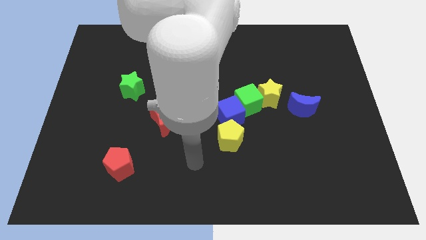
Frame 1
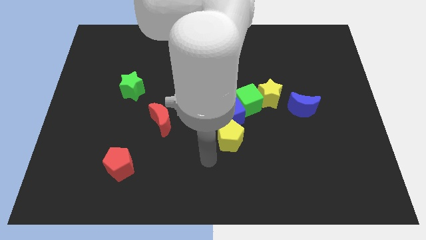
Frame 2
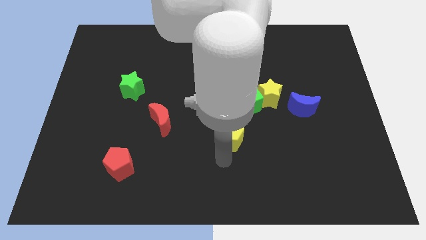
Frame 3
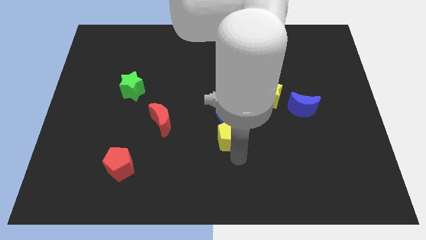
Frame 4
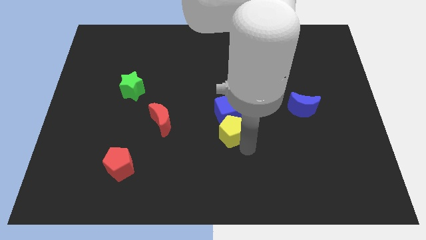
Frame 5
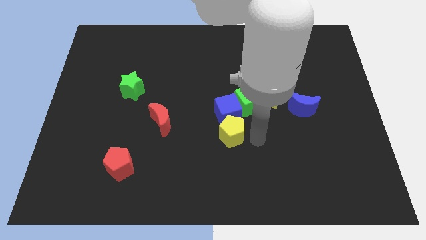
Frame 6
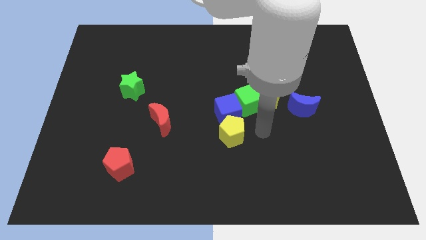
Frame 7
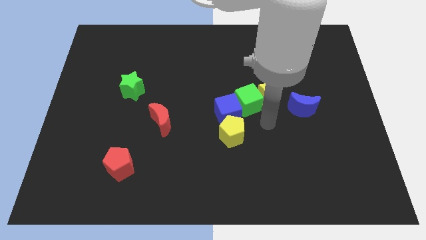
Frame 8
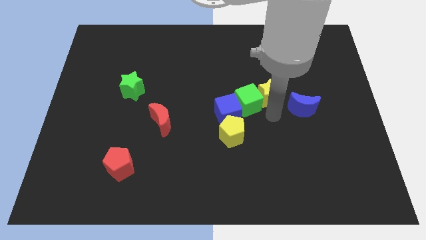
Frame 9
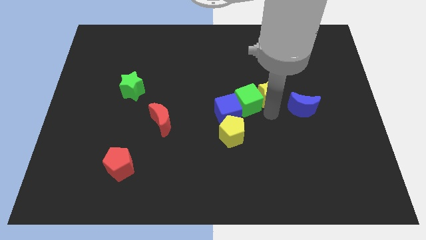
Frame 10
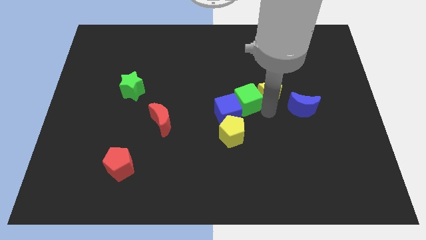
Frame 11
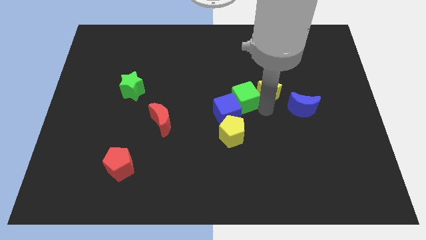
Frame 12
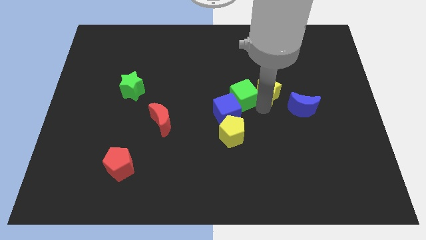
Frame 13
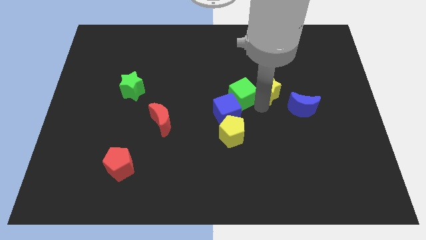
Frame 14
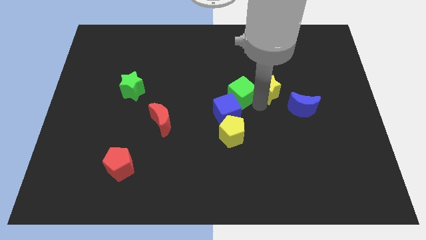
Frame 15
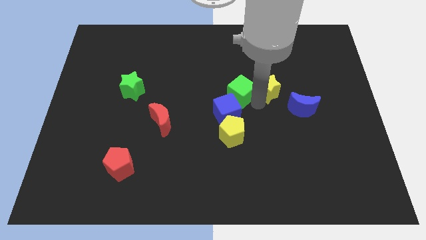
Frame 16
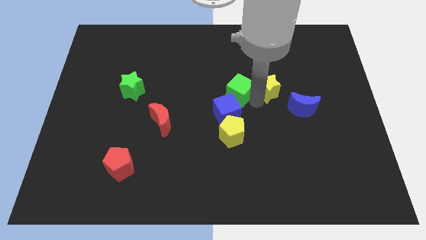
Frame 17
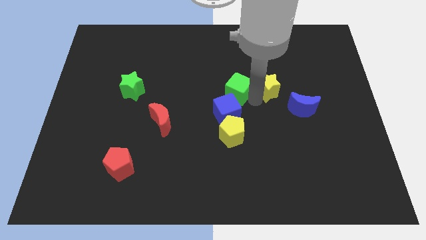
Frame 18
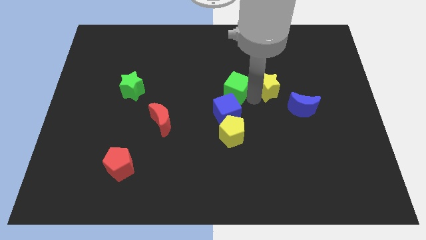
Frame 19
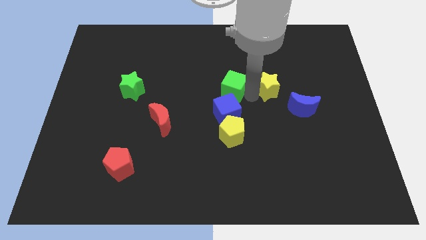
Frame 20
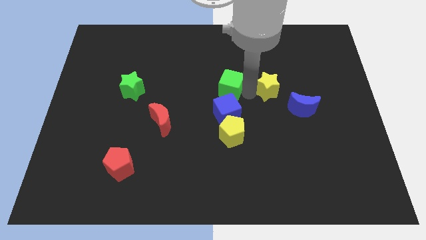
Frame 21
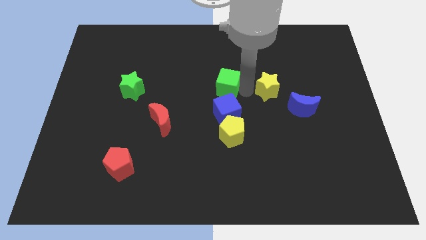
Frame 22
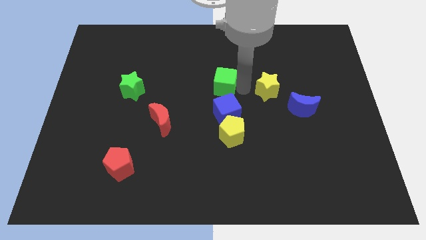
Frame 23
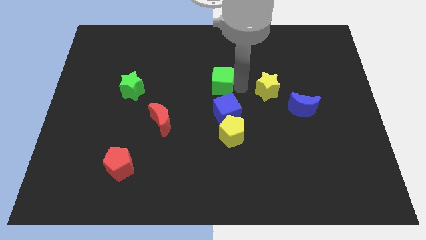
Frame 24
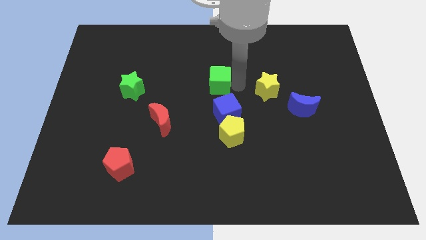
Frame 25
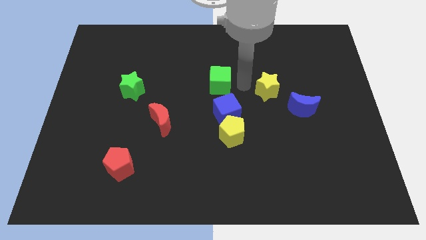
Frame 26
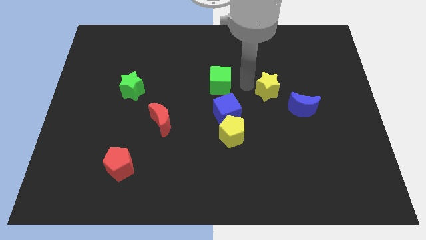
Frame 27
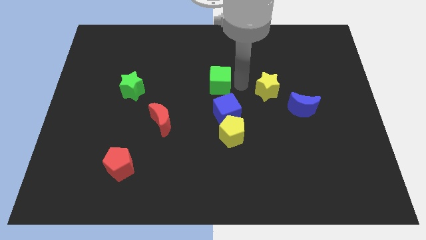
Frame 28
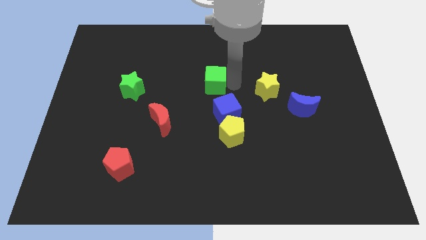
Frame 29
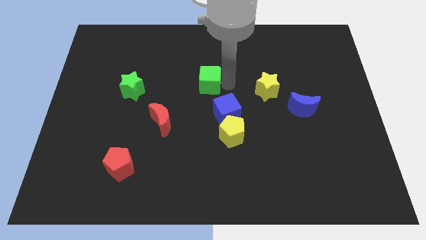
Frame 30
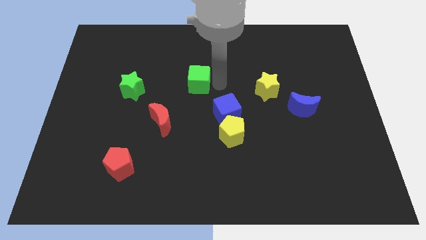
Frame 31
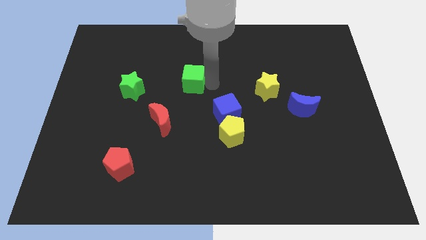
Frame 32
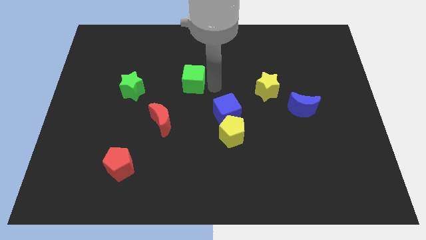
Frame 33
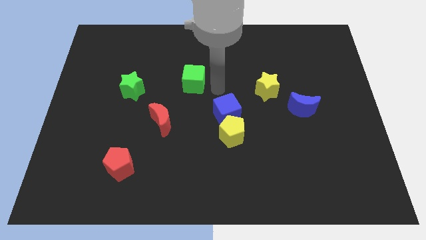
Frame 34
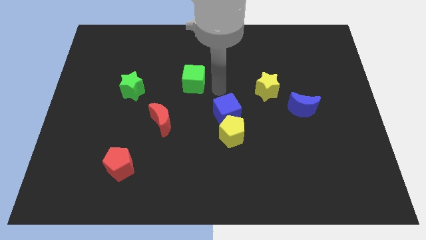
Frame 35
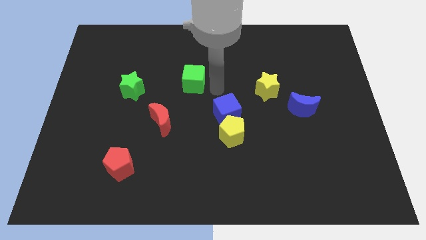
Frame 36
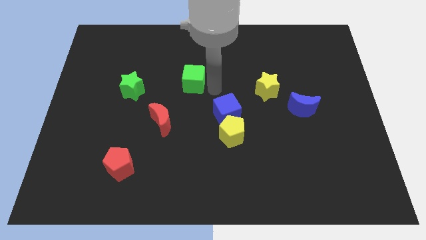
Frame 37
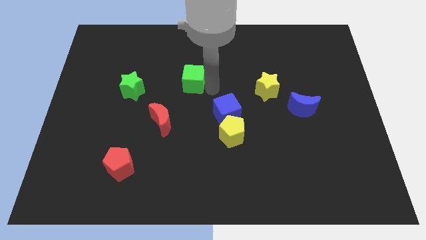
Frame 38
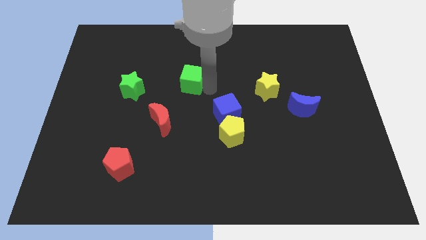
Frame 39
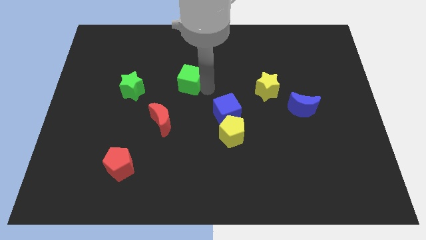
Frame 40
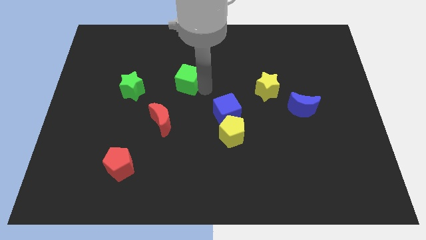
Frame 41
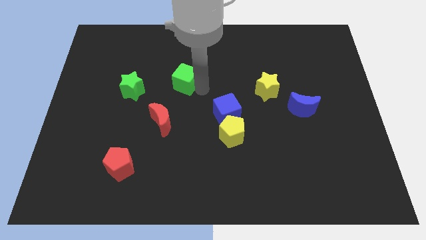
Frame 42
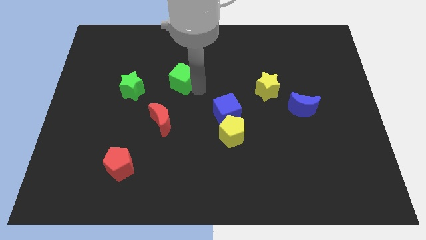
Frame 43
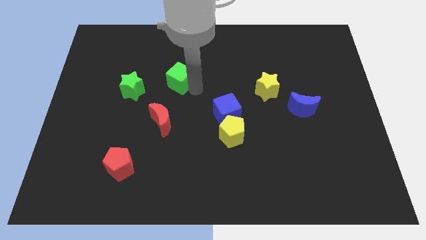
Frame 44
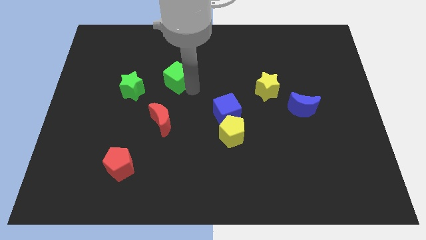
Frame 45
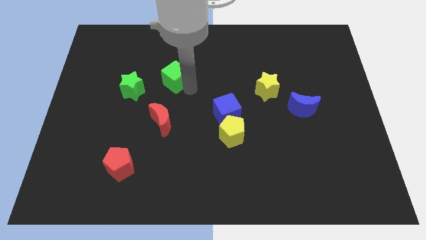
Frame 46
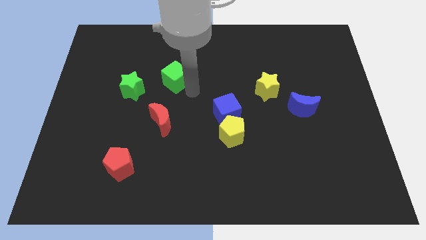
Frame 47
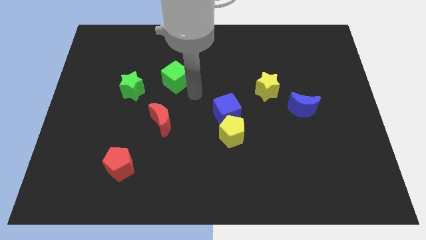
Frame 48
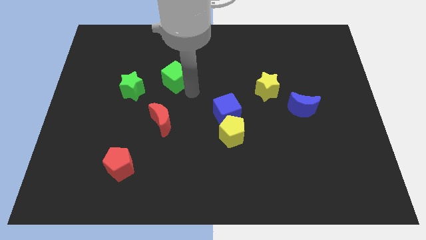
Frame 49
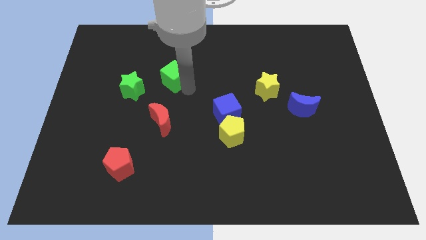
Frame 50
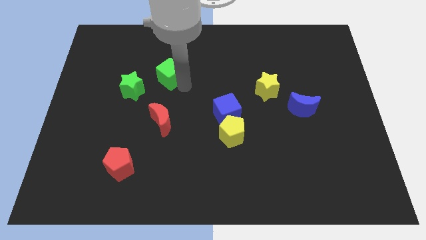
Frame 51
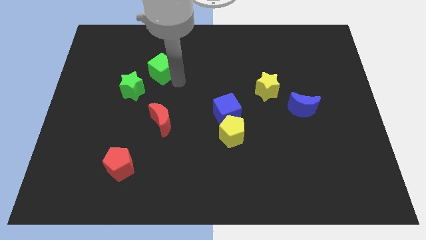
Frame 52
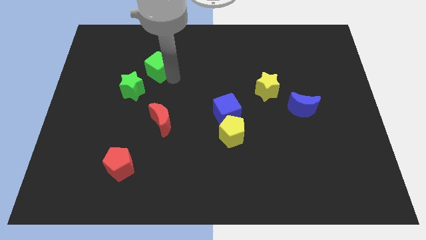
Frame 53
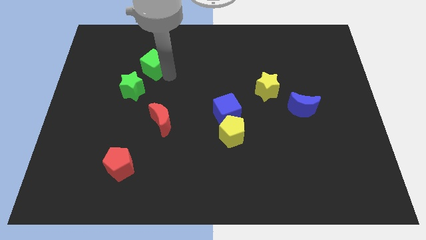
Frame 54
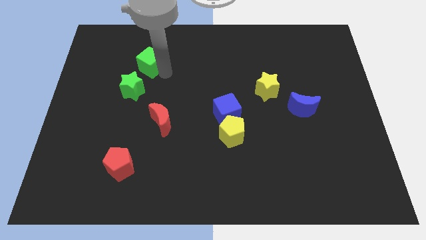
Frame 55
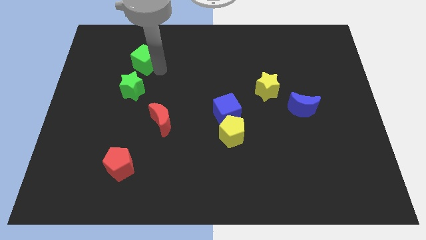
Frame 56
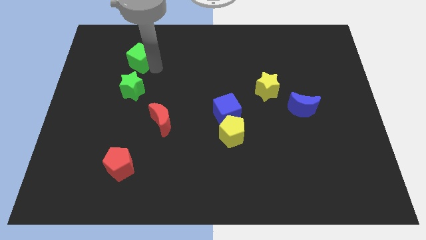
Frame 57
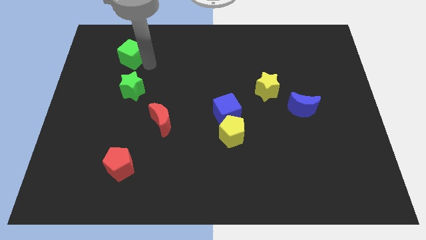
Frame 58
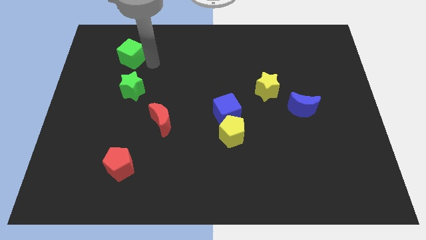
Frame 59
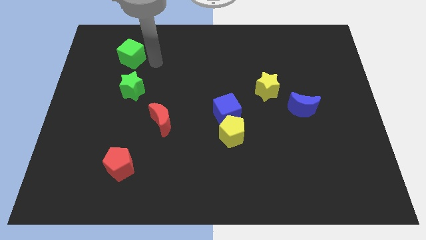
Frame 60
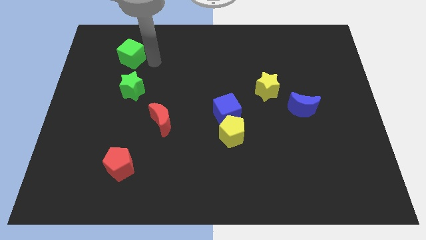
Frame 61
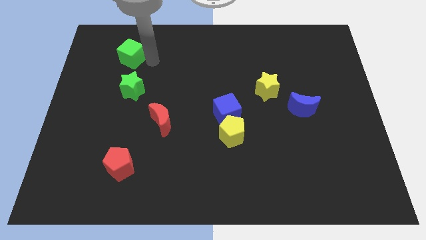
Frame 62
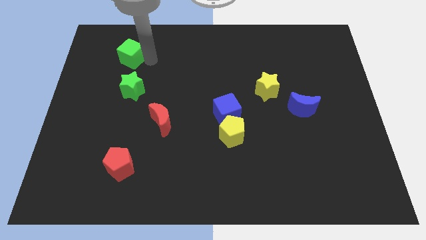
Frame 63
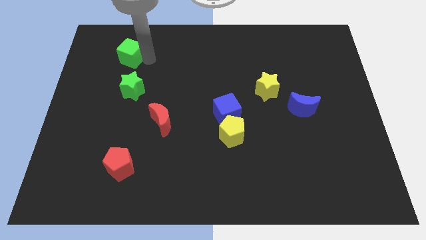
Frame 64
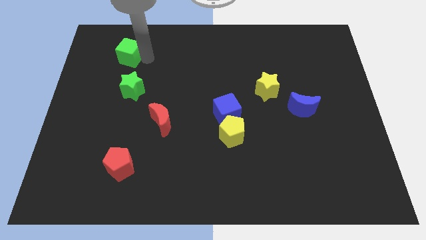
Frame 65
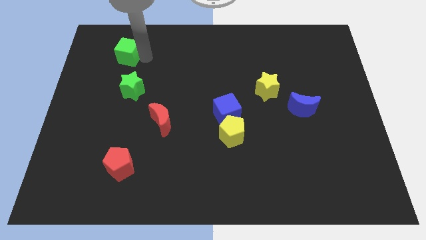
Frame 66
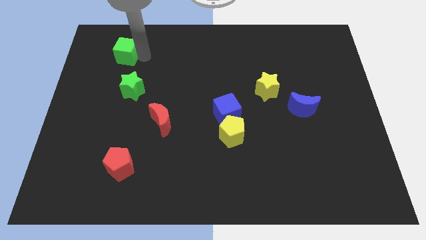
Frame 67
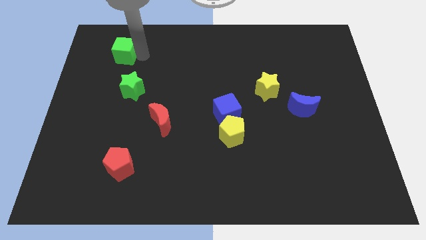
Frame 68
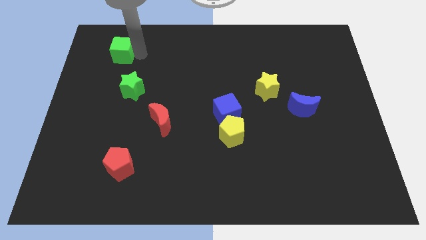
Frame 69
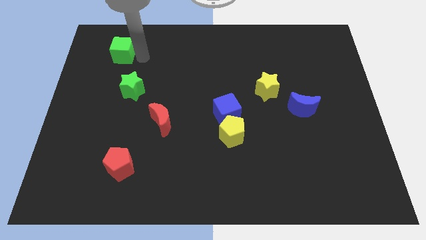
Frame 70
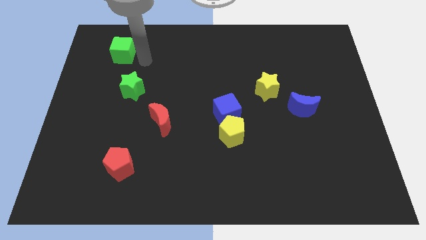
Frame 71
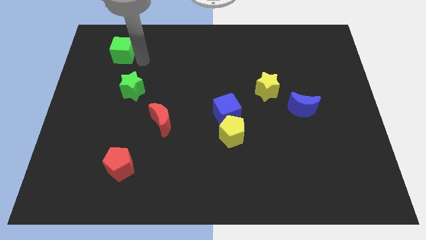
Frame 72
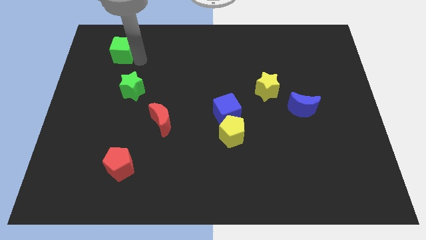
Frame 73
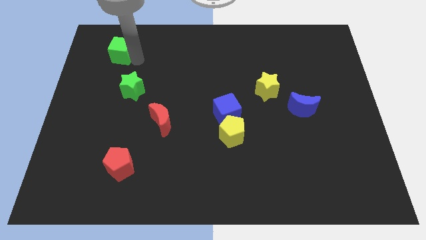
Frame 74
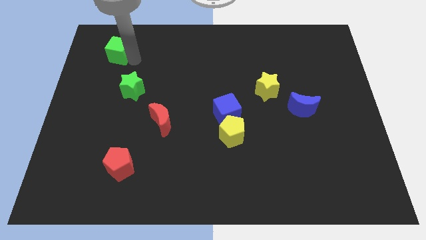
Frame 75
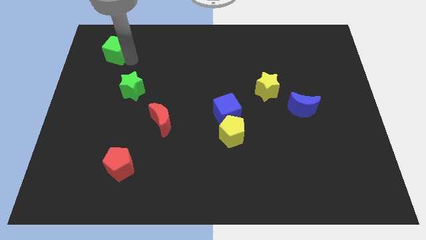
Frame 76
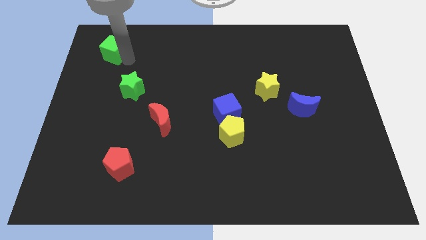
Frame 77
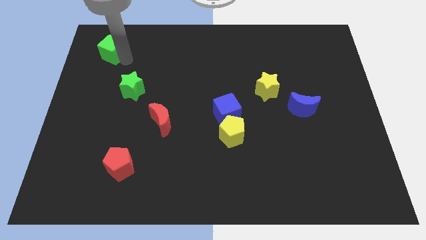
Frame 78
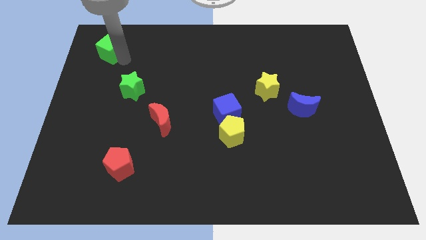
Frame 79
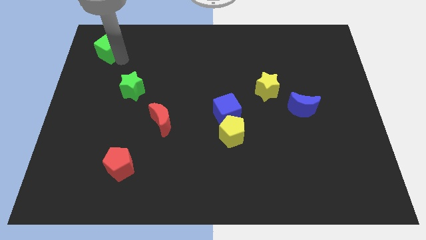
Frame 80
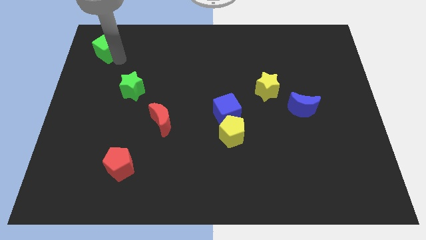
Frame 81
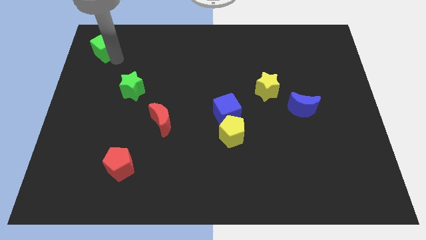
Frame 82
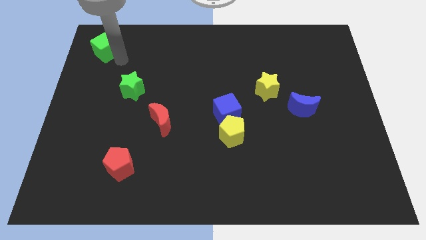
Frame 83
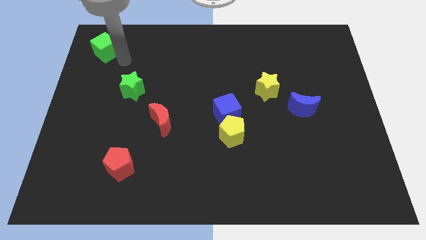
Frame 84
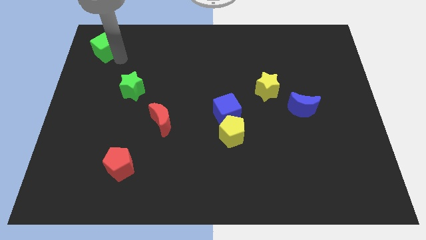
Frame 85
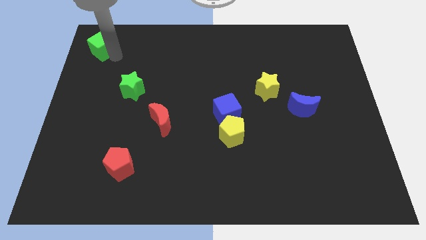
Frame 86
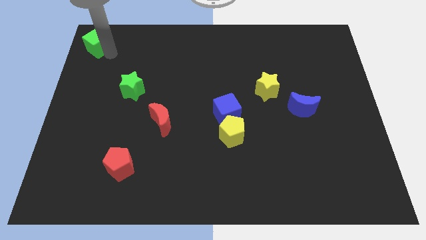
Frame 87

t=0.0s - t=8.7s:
move the green cube to the top left of the board

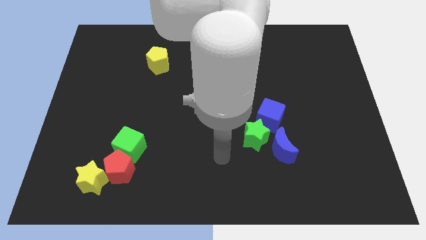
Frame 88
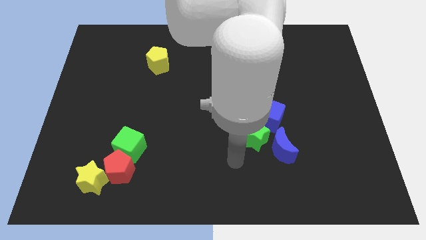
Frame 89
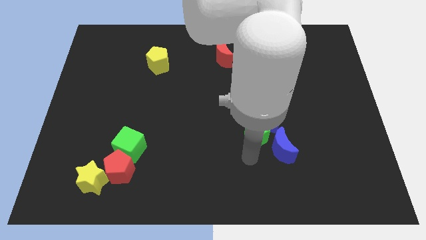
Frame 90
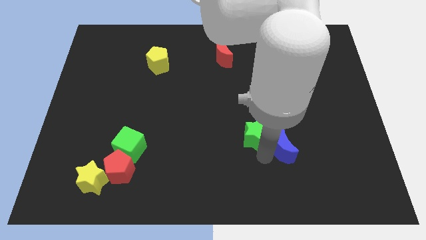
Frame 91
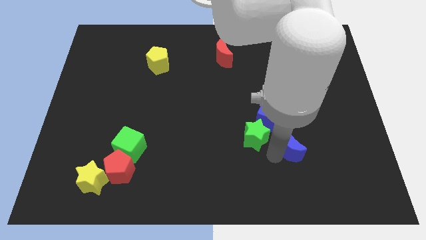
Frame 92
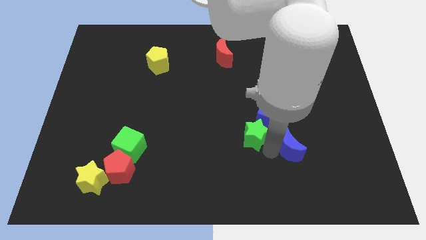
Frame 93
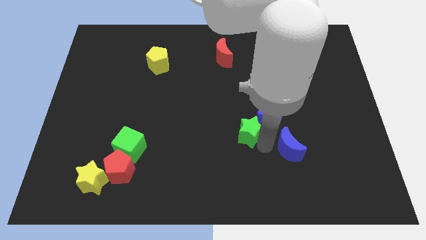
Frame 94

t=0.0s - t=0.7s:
move the green star to the middle
